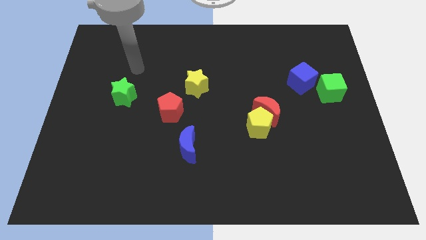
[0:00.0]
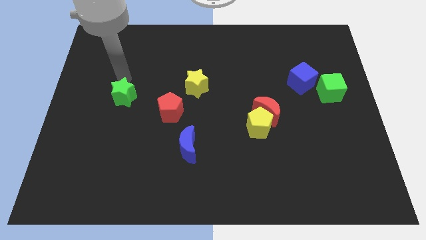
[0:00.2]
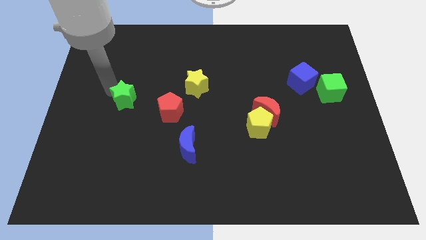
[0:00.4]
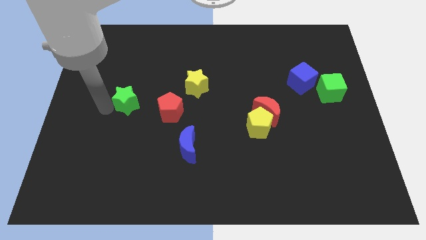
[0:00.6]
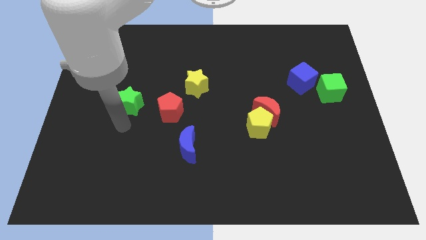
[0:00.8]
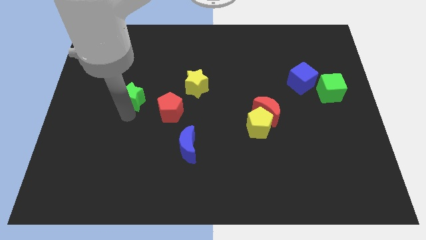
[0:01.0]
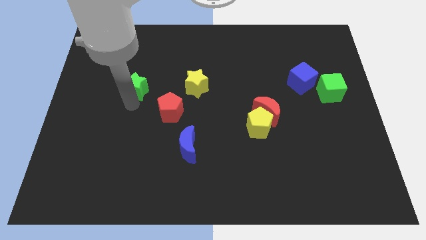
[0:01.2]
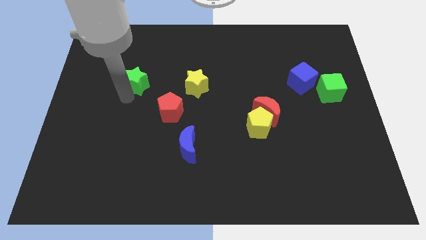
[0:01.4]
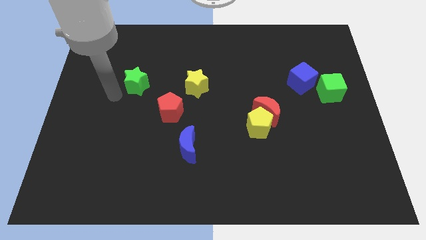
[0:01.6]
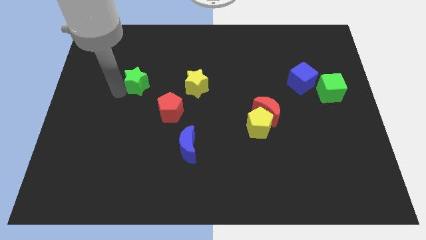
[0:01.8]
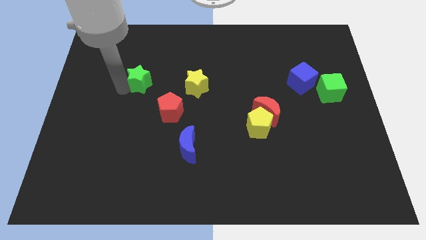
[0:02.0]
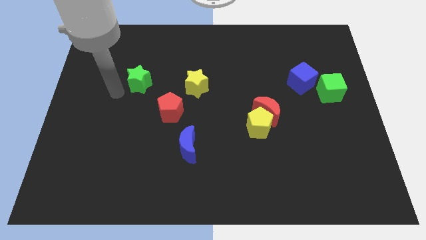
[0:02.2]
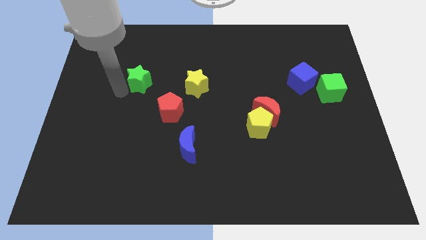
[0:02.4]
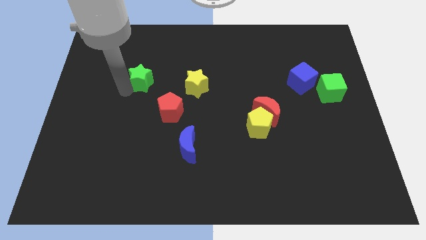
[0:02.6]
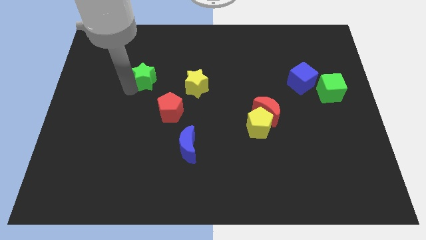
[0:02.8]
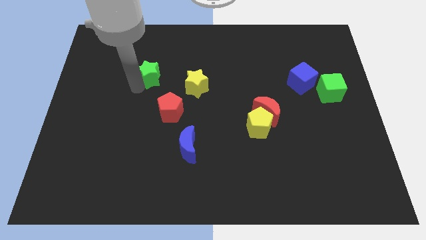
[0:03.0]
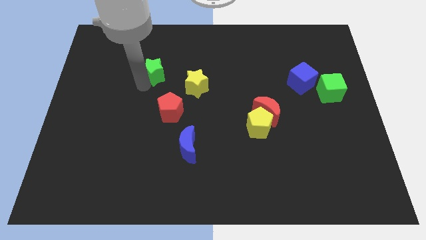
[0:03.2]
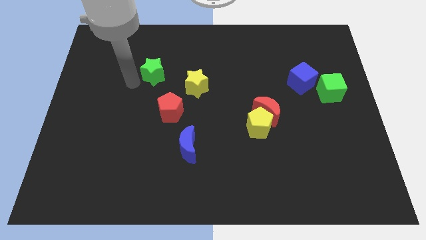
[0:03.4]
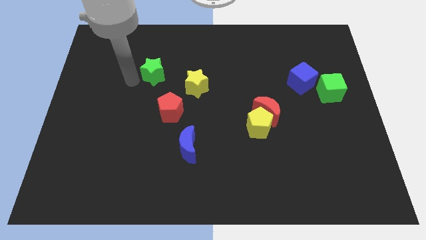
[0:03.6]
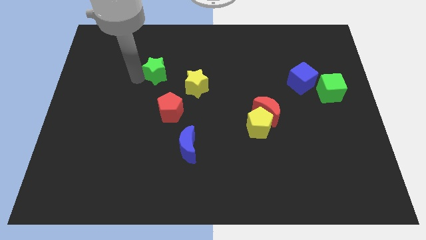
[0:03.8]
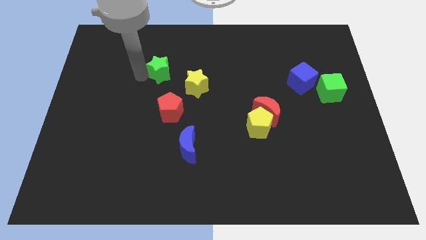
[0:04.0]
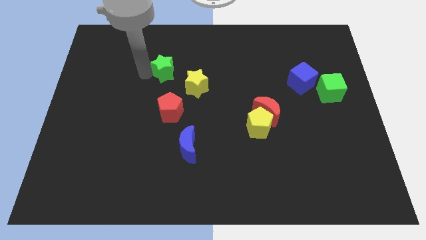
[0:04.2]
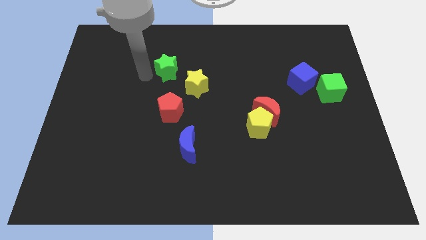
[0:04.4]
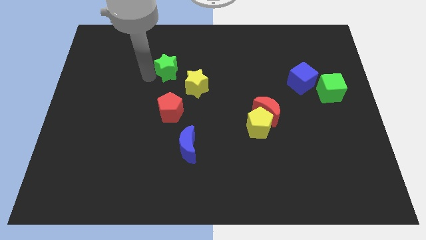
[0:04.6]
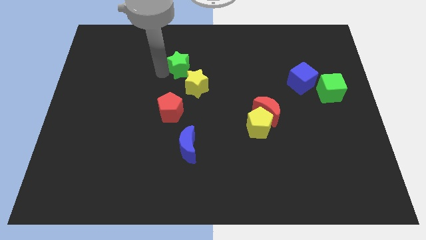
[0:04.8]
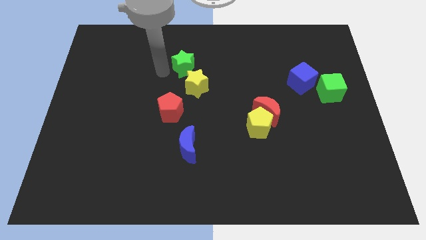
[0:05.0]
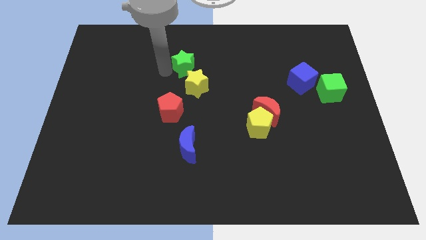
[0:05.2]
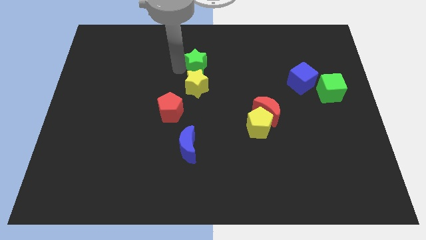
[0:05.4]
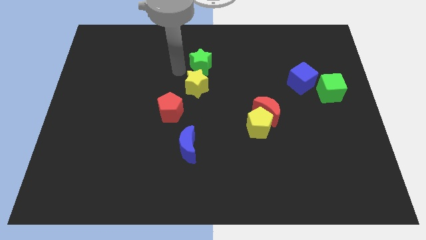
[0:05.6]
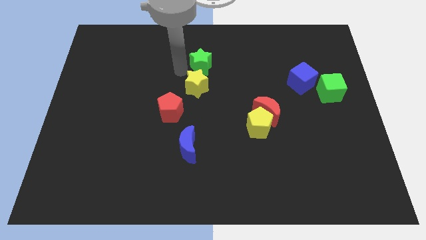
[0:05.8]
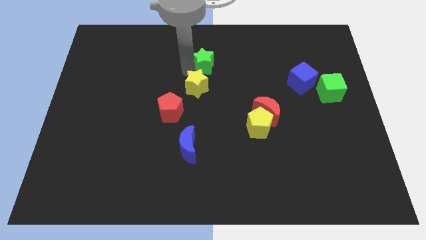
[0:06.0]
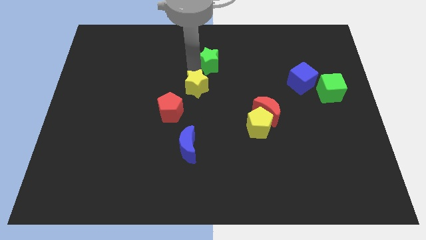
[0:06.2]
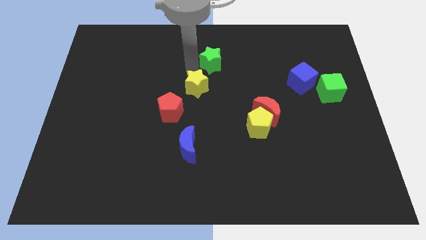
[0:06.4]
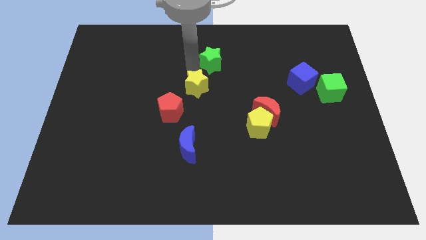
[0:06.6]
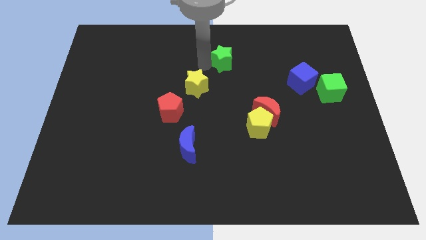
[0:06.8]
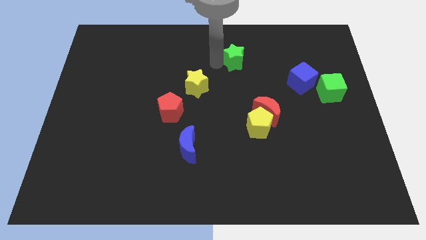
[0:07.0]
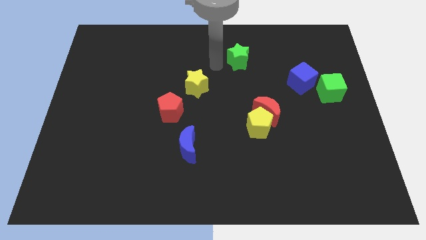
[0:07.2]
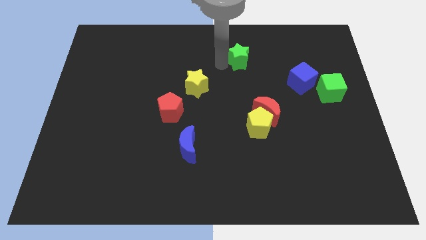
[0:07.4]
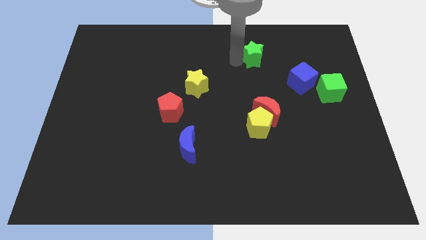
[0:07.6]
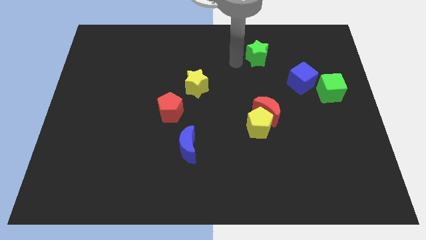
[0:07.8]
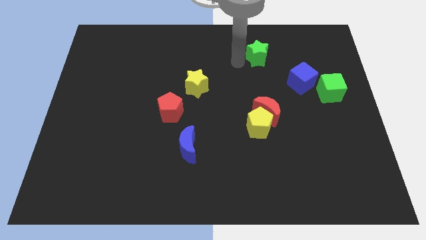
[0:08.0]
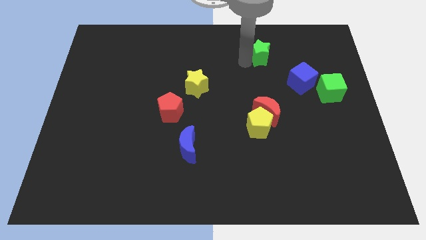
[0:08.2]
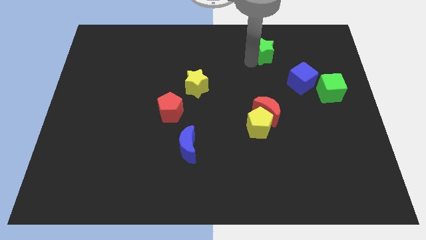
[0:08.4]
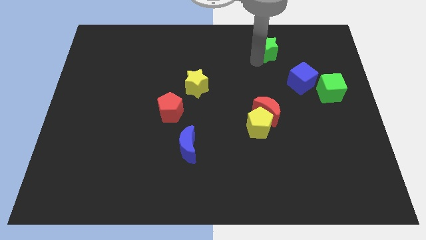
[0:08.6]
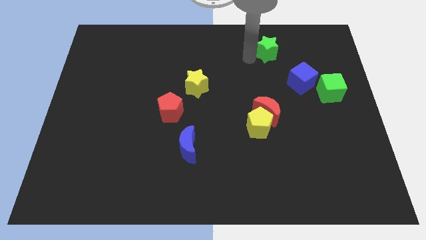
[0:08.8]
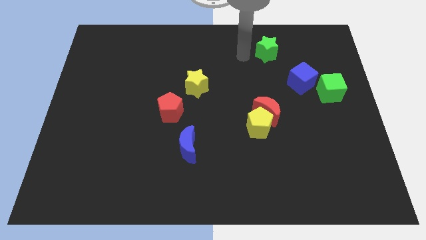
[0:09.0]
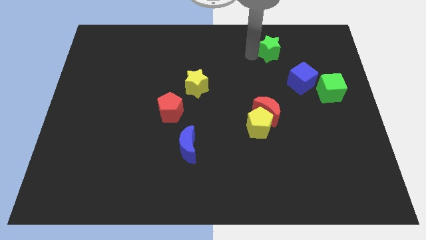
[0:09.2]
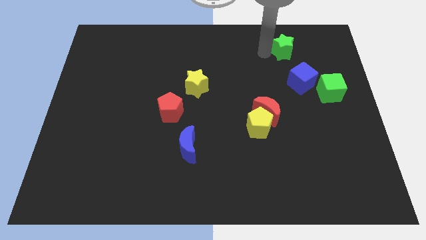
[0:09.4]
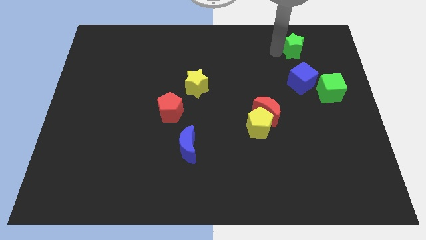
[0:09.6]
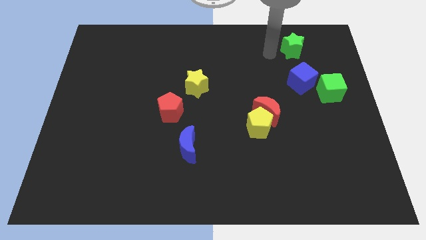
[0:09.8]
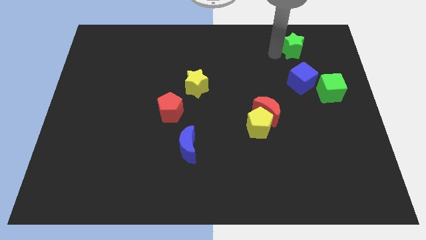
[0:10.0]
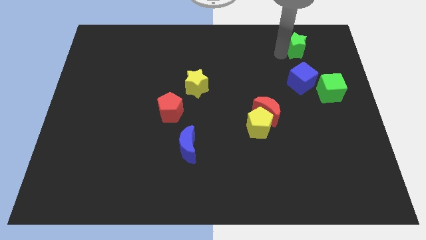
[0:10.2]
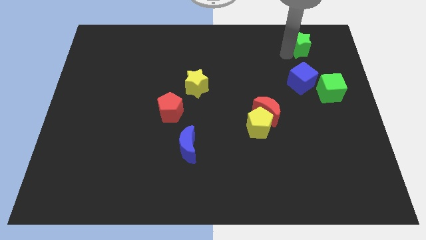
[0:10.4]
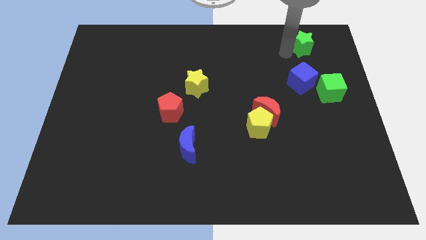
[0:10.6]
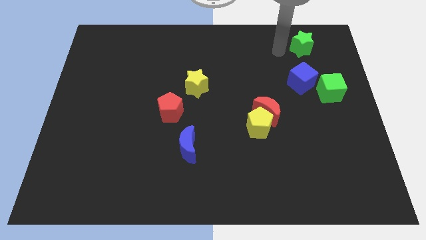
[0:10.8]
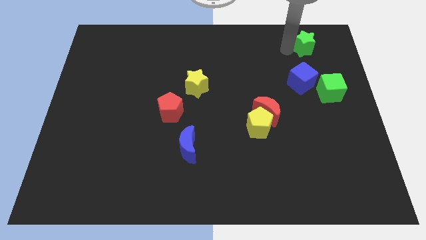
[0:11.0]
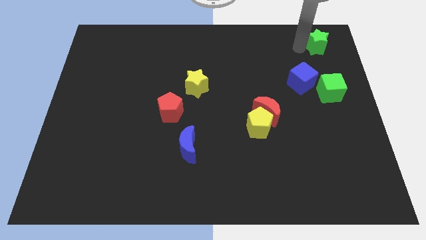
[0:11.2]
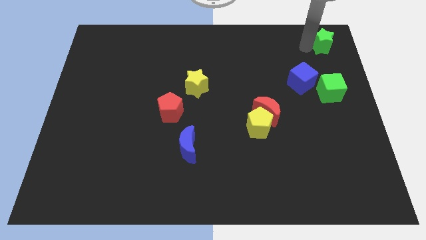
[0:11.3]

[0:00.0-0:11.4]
push the green star to the upper right corner
